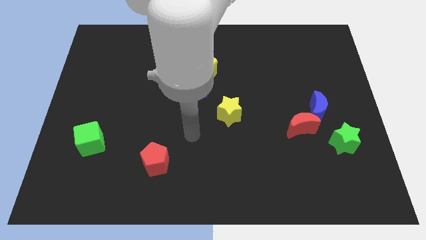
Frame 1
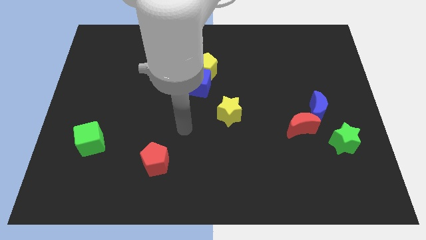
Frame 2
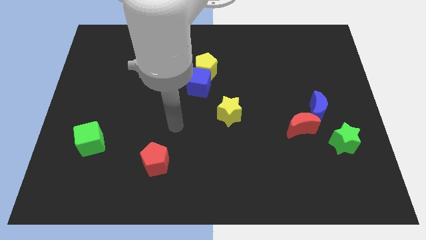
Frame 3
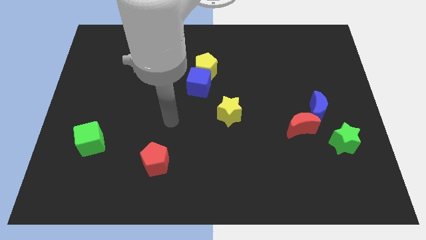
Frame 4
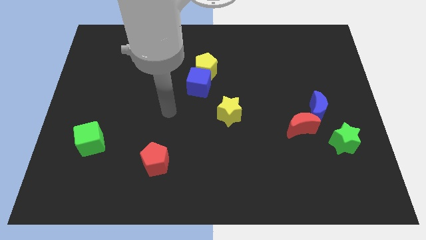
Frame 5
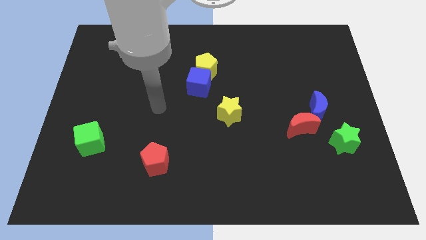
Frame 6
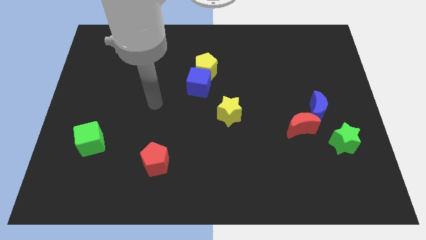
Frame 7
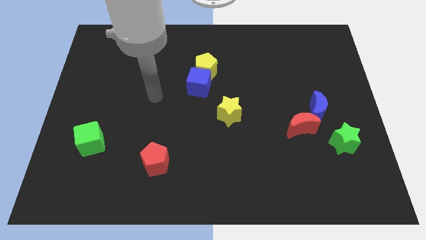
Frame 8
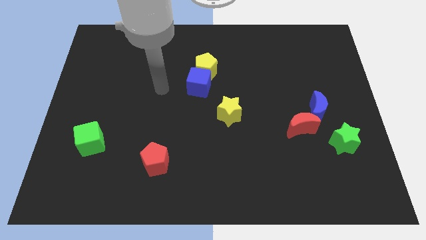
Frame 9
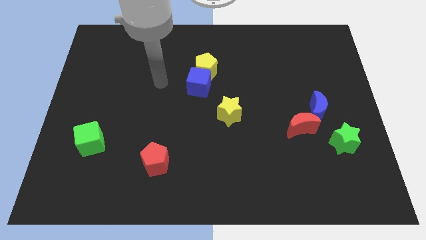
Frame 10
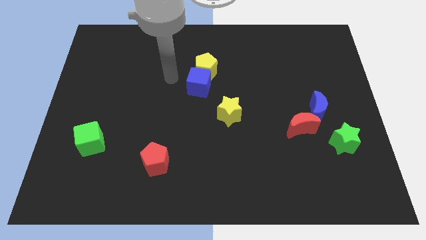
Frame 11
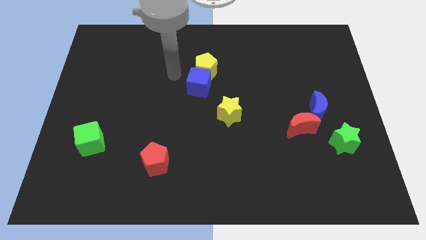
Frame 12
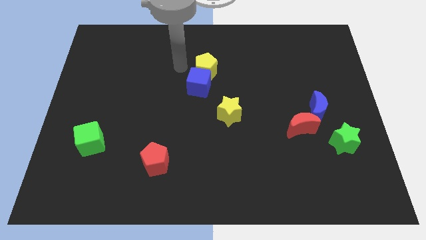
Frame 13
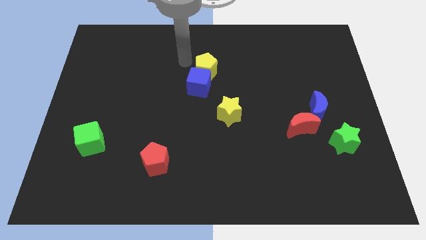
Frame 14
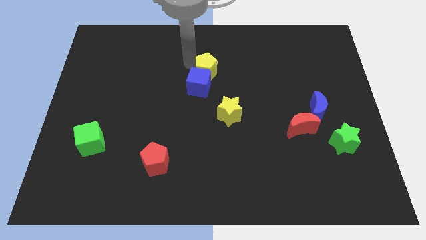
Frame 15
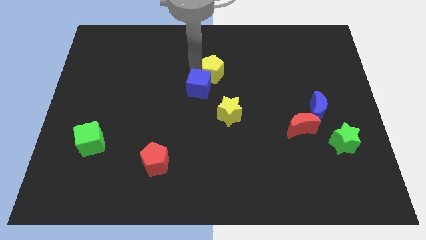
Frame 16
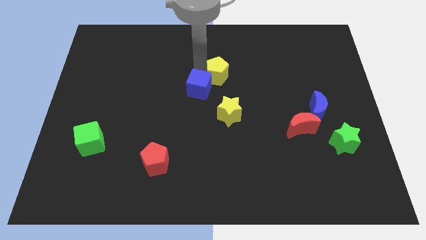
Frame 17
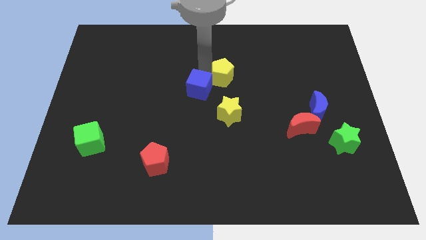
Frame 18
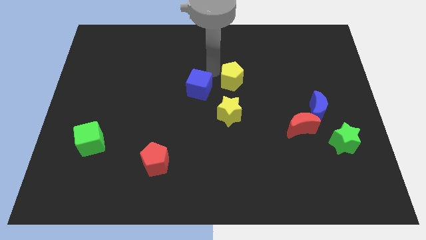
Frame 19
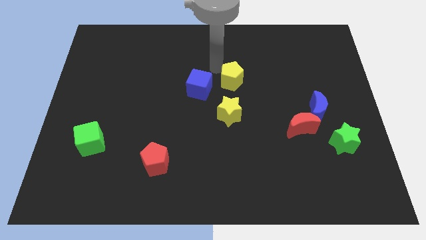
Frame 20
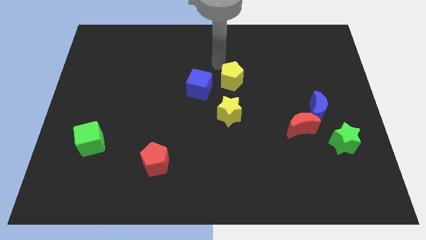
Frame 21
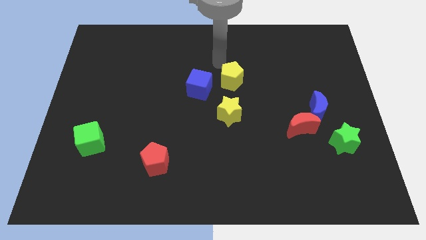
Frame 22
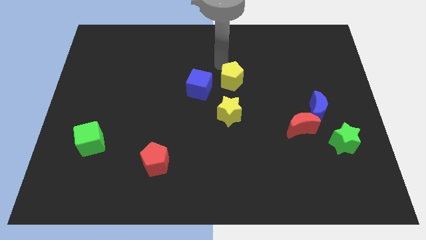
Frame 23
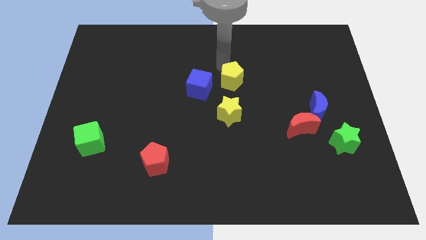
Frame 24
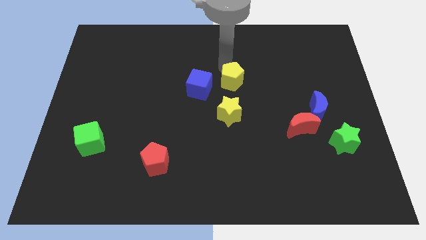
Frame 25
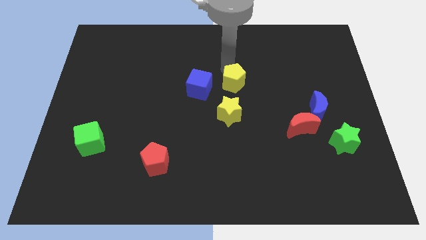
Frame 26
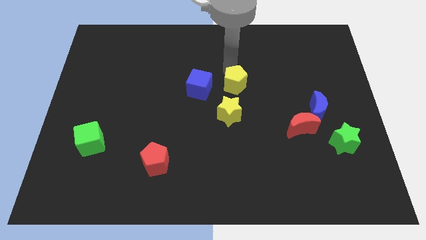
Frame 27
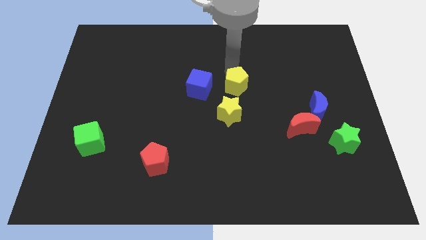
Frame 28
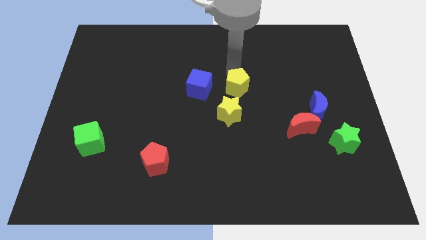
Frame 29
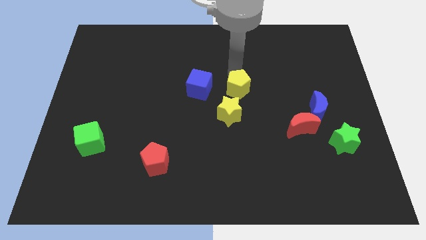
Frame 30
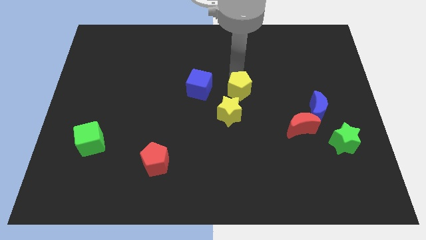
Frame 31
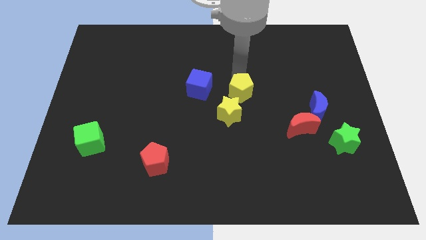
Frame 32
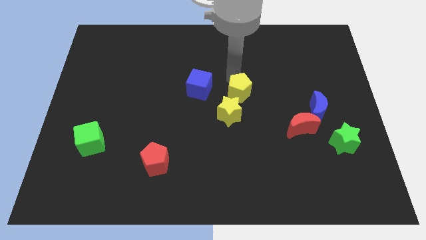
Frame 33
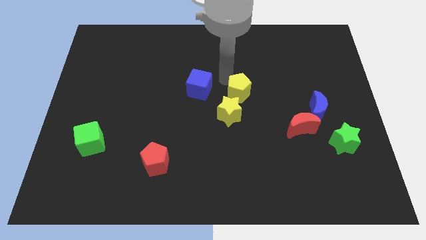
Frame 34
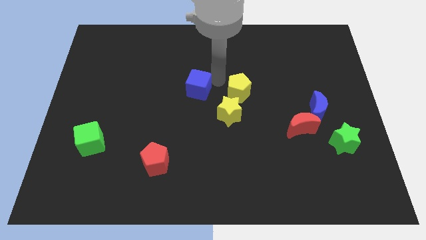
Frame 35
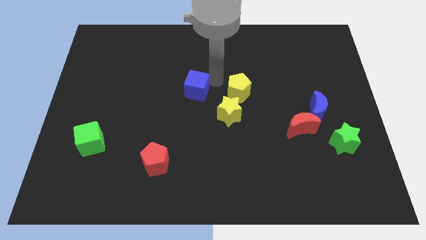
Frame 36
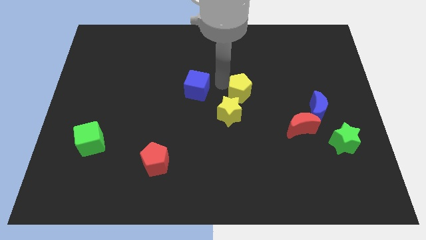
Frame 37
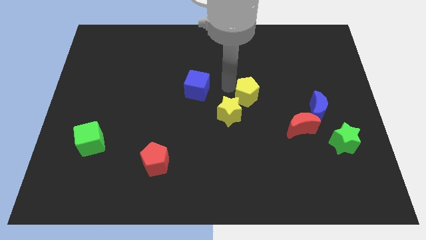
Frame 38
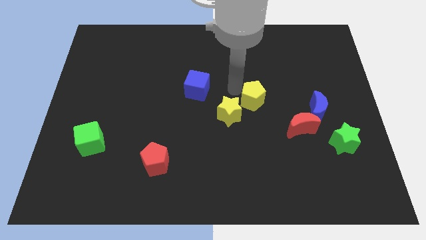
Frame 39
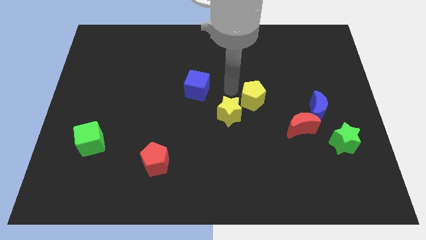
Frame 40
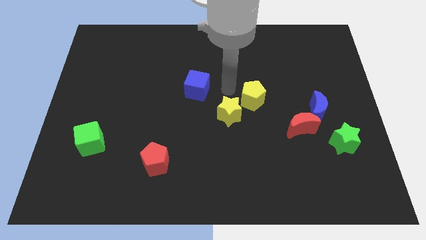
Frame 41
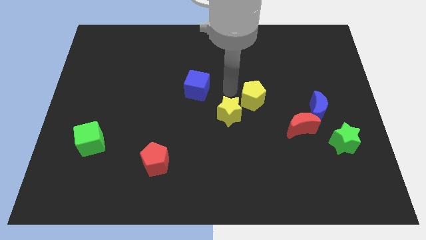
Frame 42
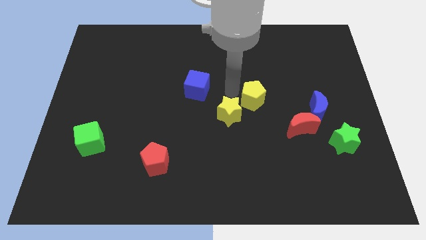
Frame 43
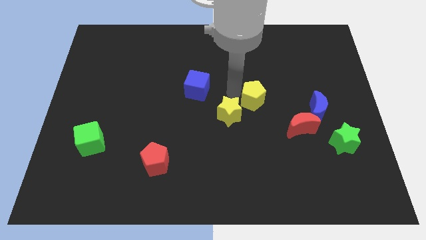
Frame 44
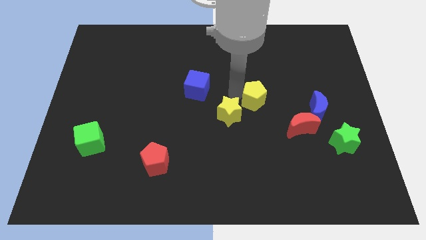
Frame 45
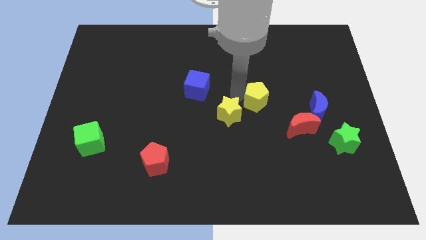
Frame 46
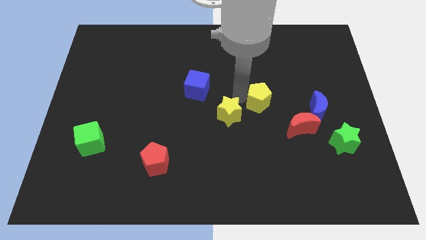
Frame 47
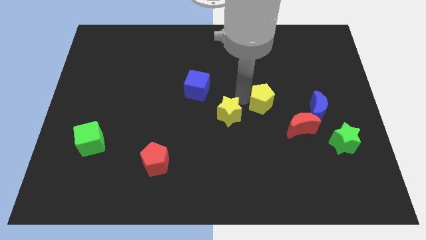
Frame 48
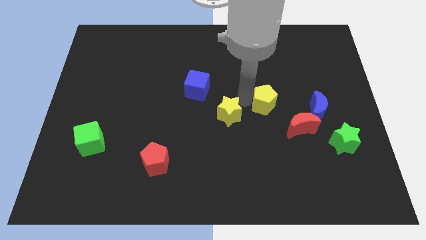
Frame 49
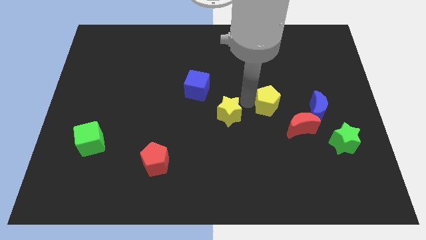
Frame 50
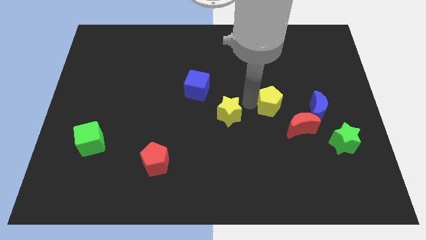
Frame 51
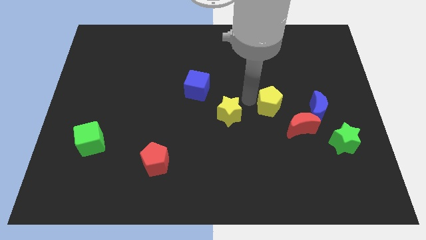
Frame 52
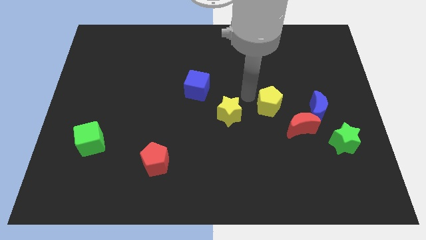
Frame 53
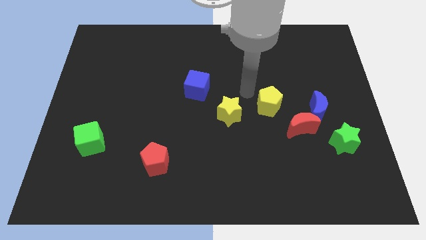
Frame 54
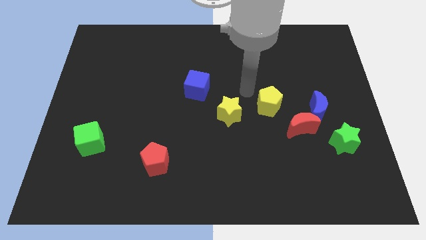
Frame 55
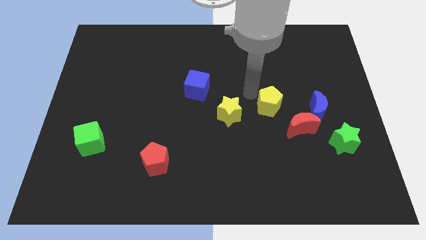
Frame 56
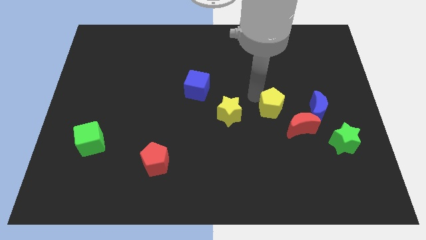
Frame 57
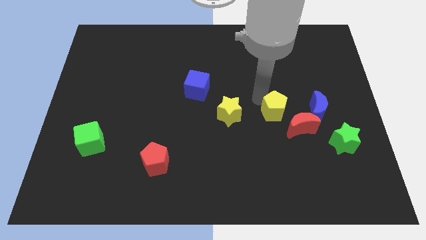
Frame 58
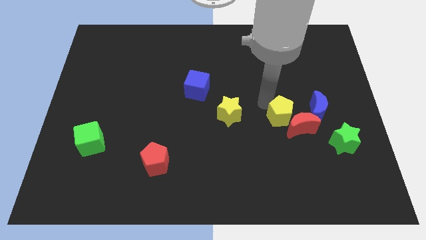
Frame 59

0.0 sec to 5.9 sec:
put the yellow pentagon next to the red moon

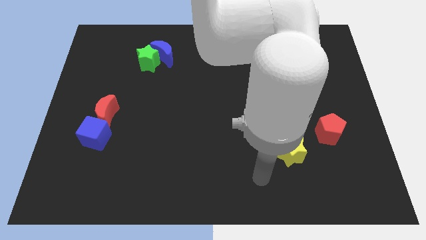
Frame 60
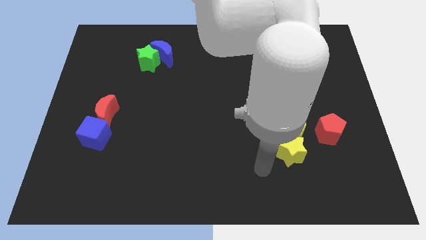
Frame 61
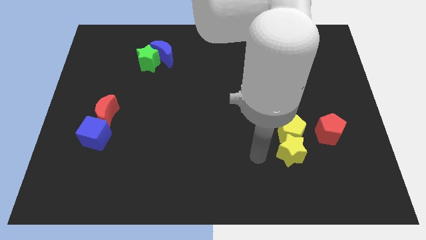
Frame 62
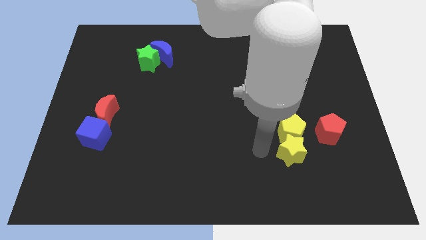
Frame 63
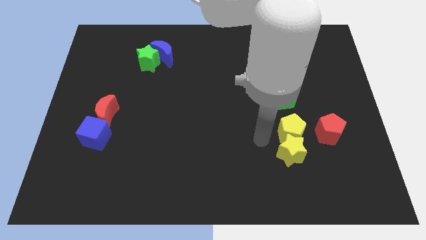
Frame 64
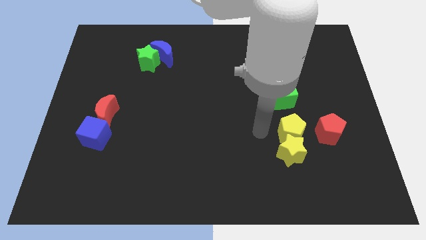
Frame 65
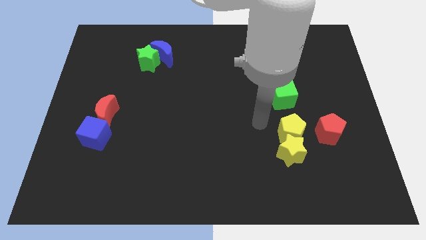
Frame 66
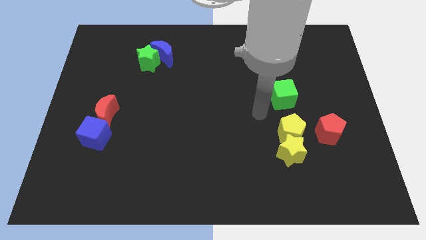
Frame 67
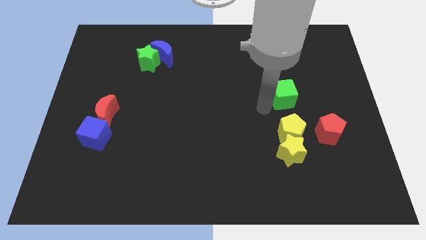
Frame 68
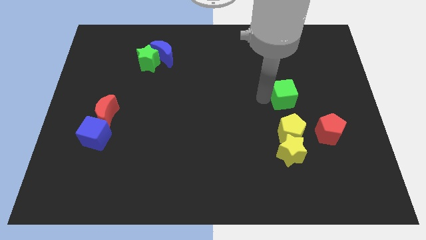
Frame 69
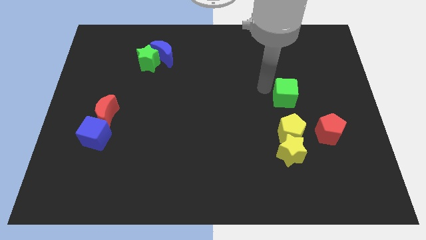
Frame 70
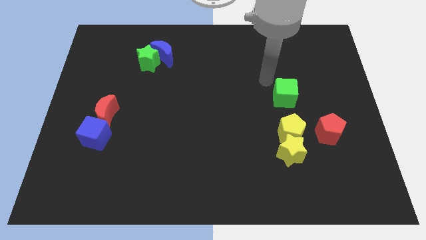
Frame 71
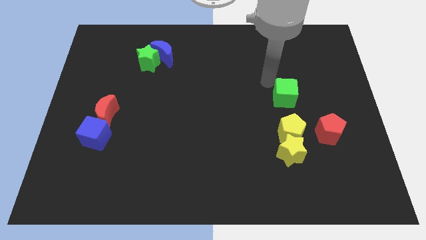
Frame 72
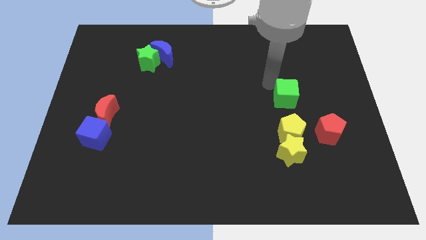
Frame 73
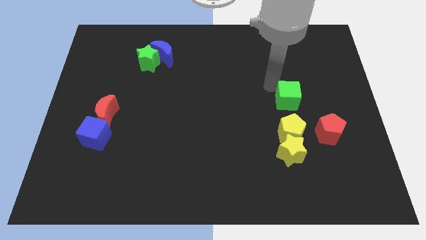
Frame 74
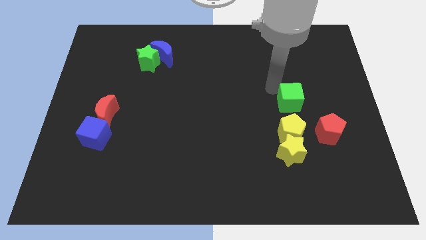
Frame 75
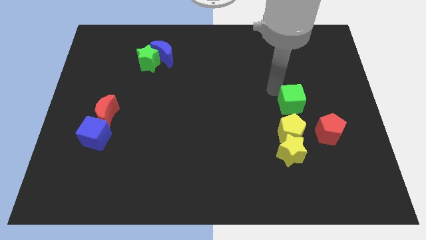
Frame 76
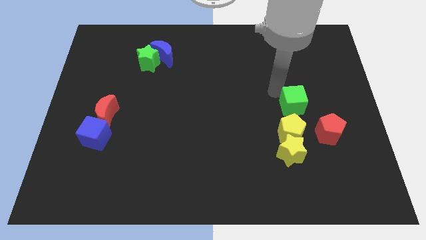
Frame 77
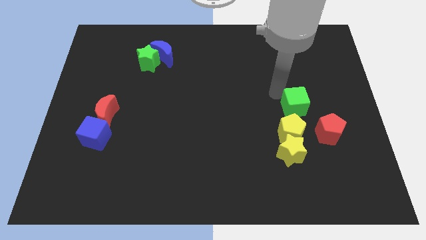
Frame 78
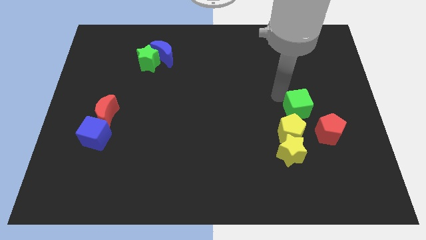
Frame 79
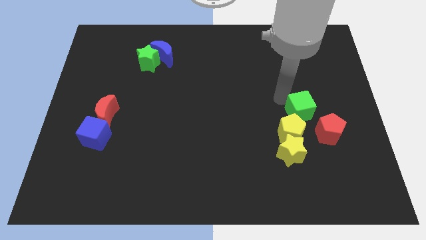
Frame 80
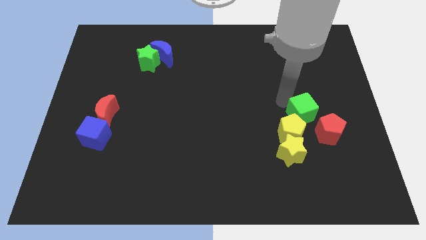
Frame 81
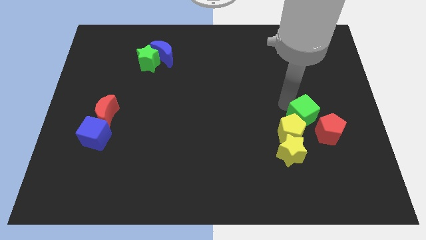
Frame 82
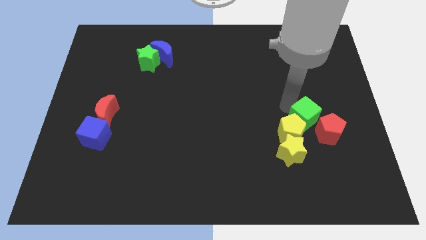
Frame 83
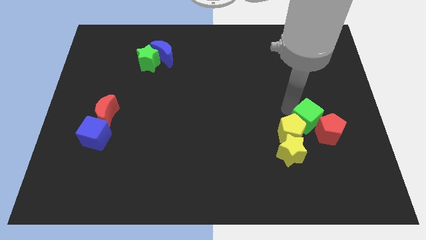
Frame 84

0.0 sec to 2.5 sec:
slide the green cube towards the red pentagon
